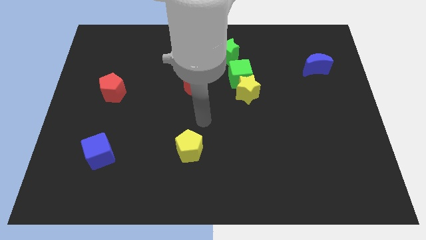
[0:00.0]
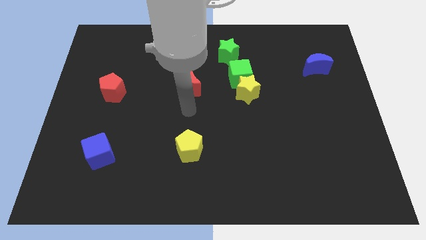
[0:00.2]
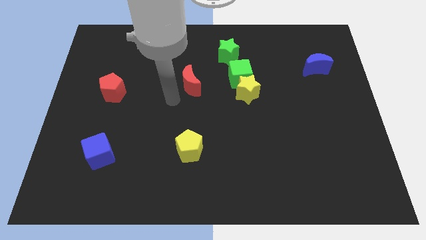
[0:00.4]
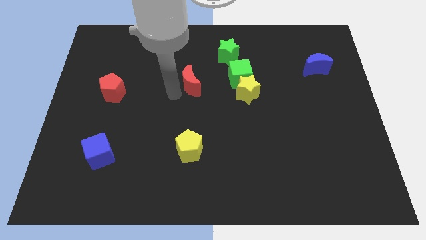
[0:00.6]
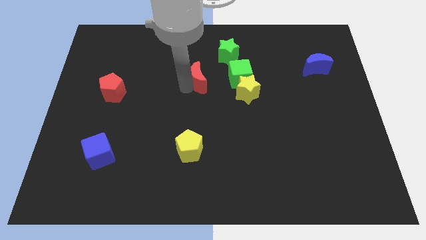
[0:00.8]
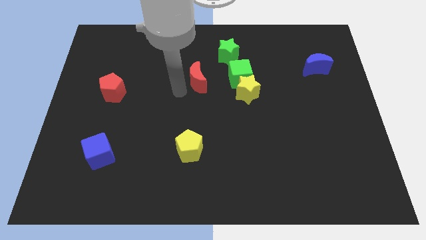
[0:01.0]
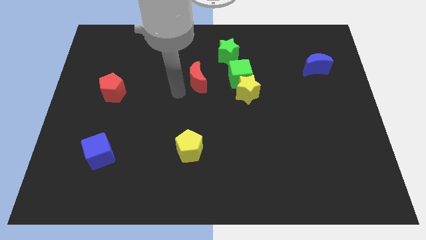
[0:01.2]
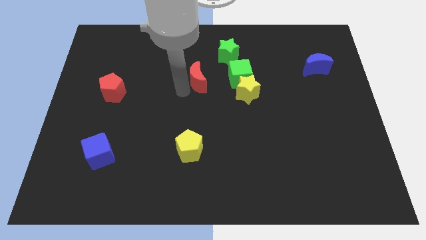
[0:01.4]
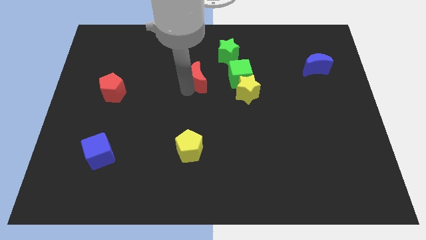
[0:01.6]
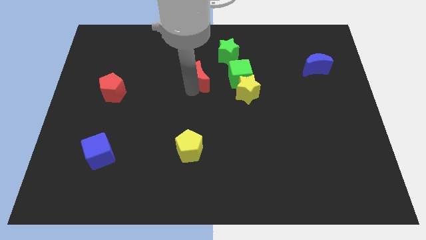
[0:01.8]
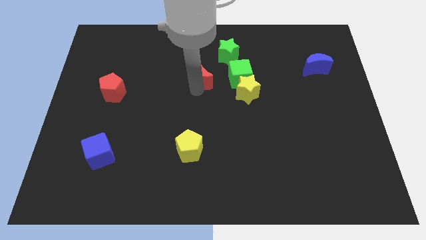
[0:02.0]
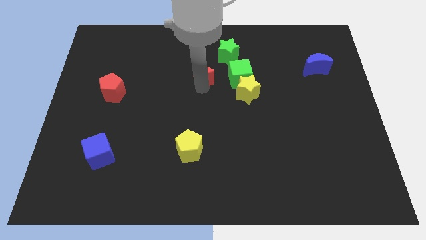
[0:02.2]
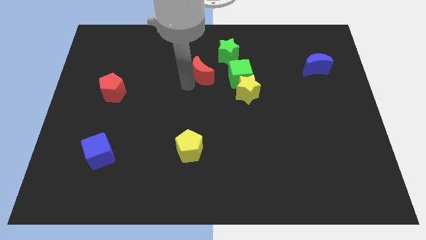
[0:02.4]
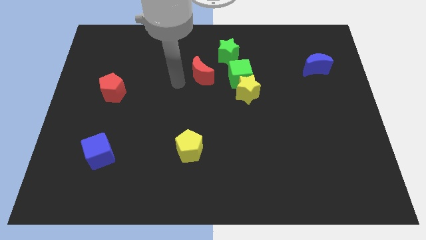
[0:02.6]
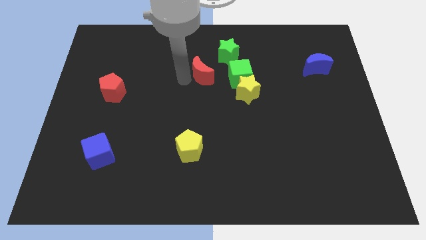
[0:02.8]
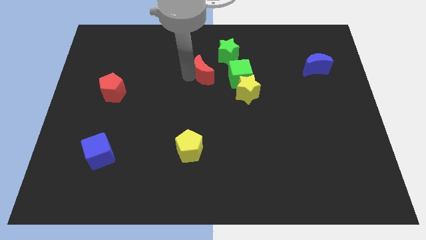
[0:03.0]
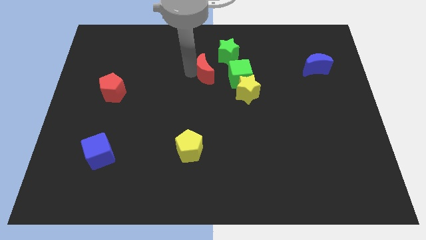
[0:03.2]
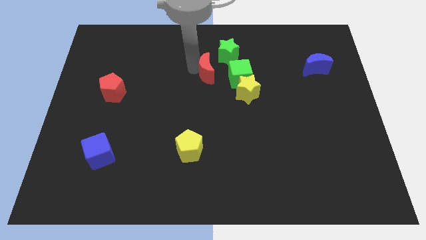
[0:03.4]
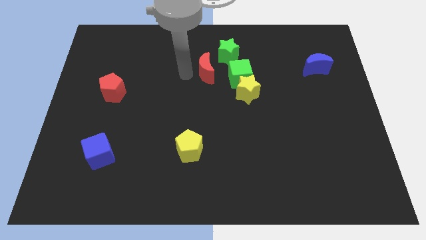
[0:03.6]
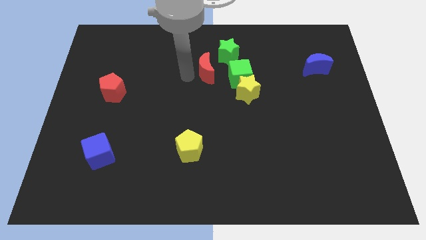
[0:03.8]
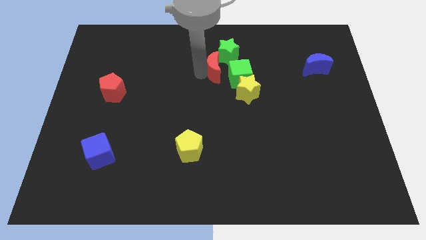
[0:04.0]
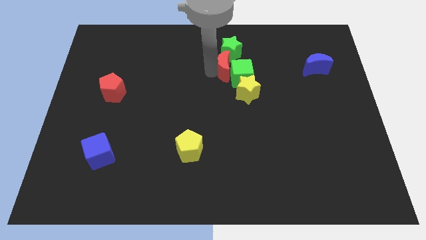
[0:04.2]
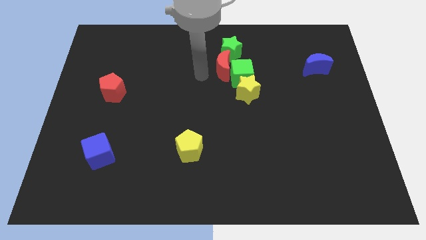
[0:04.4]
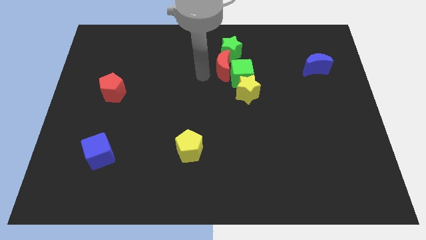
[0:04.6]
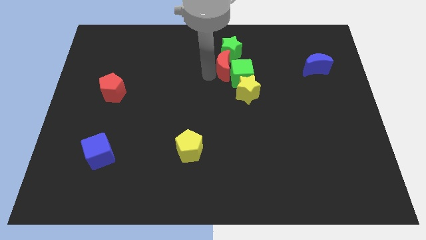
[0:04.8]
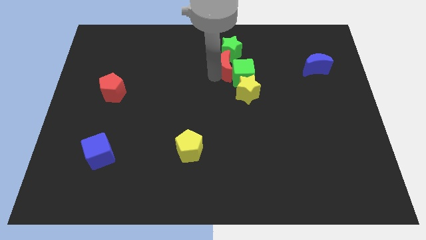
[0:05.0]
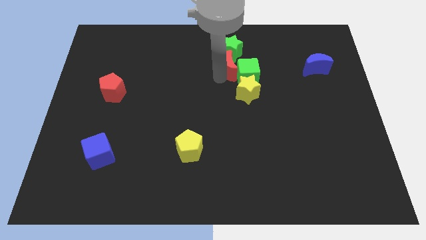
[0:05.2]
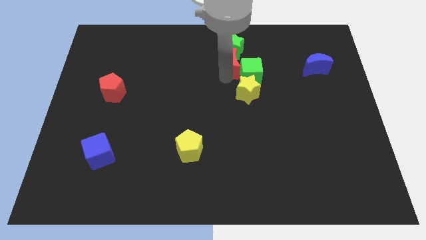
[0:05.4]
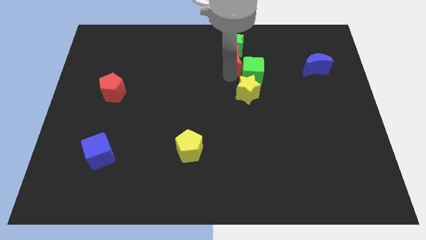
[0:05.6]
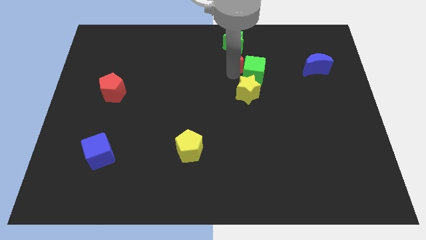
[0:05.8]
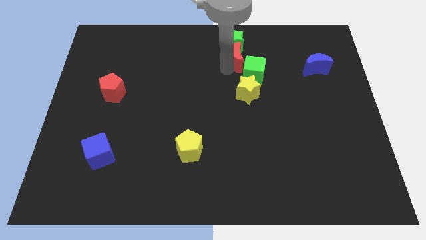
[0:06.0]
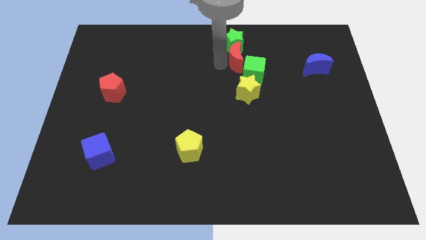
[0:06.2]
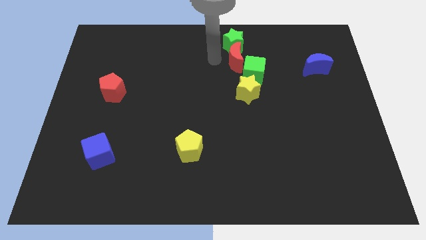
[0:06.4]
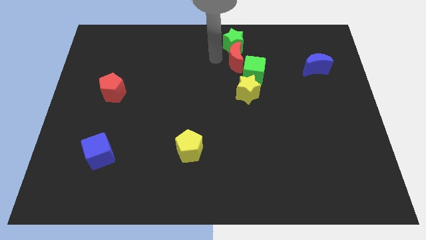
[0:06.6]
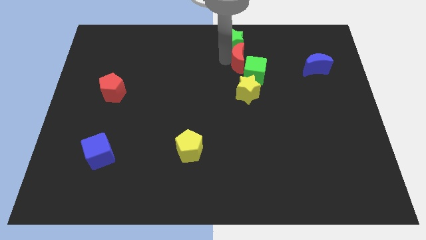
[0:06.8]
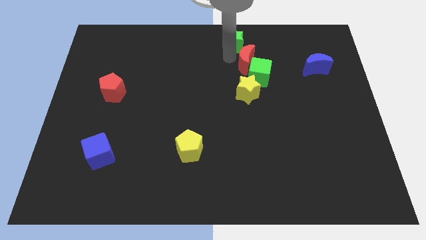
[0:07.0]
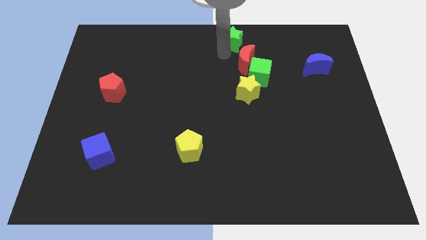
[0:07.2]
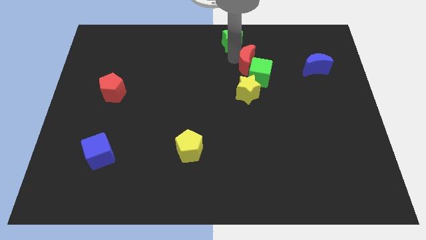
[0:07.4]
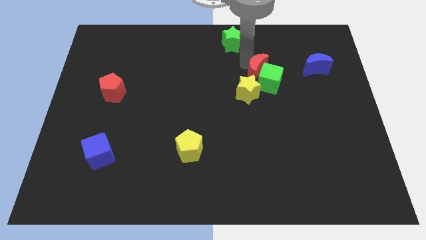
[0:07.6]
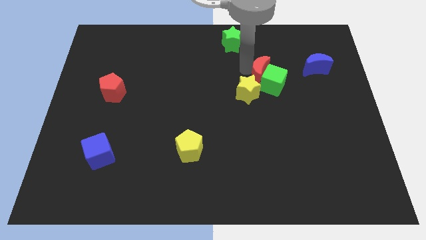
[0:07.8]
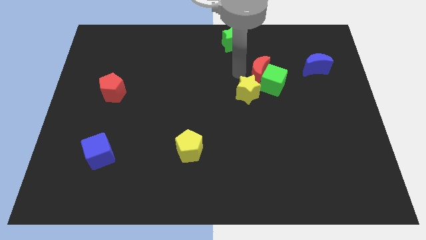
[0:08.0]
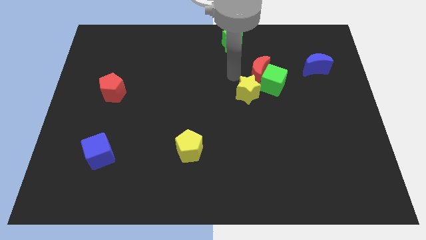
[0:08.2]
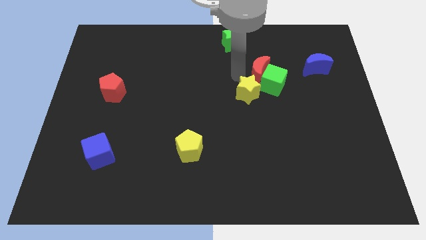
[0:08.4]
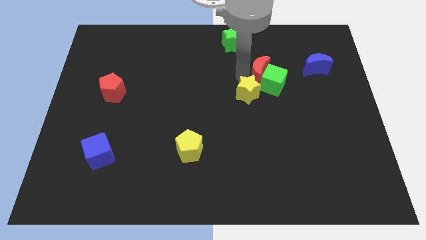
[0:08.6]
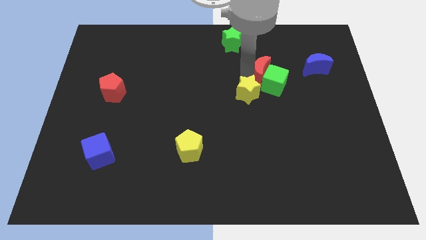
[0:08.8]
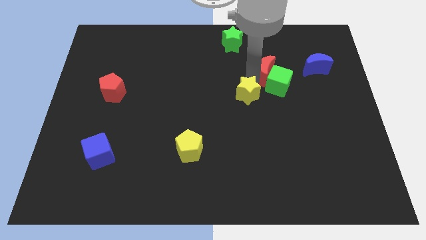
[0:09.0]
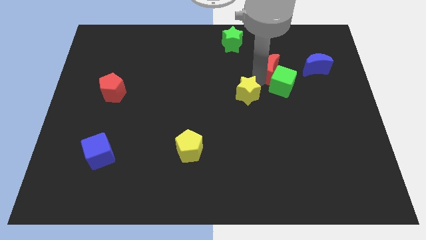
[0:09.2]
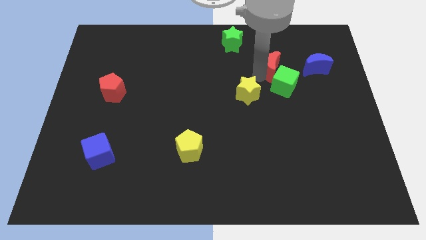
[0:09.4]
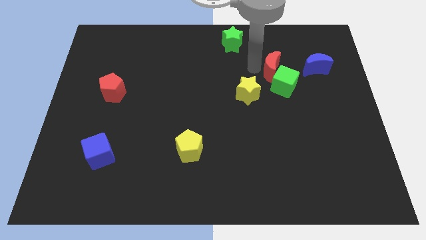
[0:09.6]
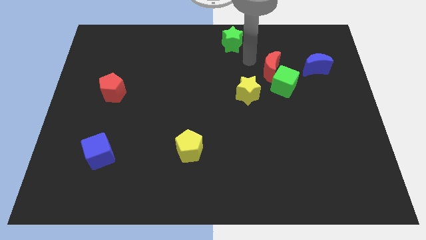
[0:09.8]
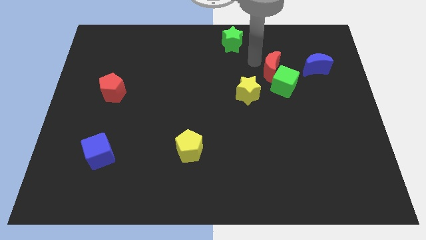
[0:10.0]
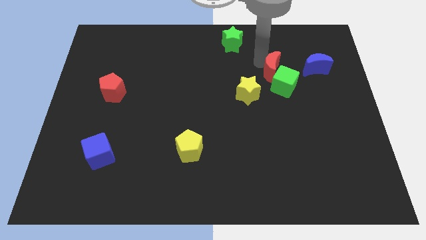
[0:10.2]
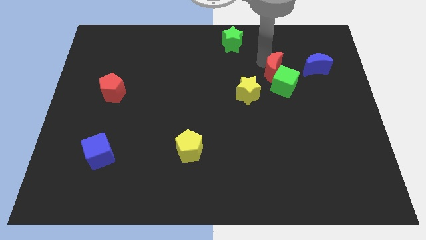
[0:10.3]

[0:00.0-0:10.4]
push the red moon to the right

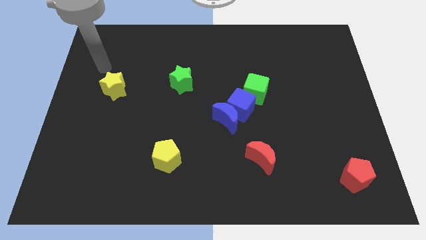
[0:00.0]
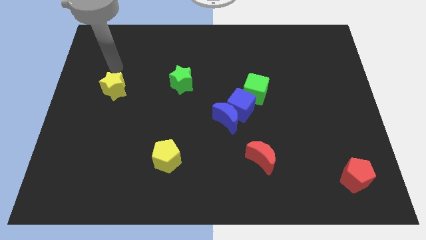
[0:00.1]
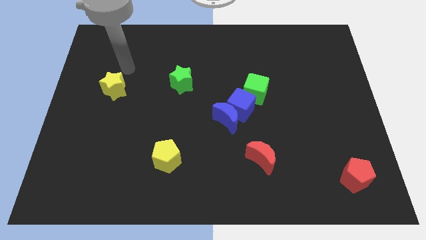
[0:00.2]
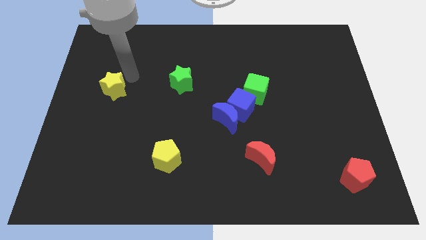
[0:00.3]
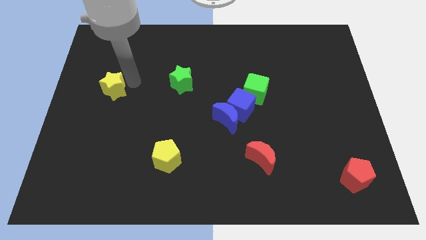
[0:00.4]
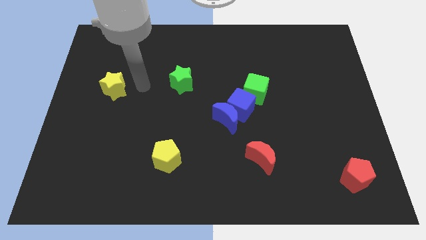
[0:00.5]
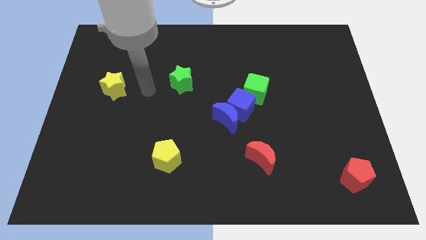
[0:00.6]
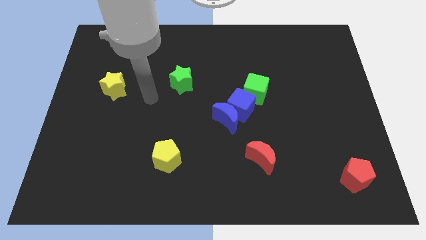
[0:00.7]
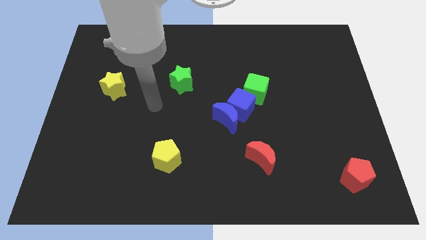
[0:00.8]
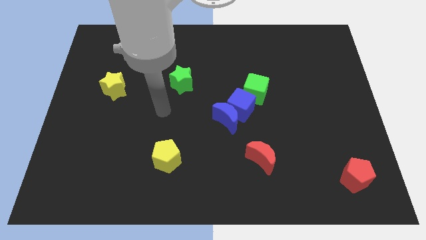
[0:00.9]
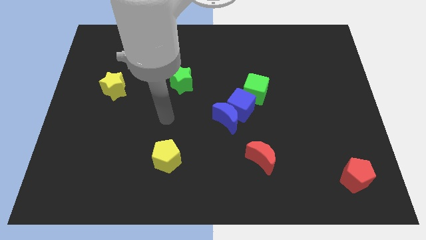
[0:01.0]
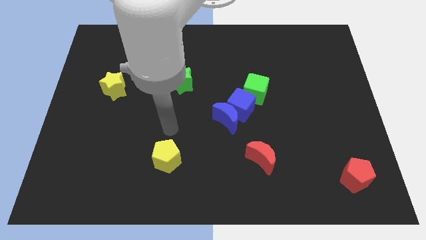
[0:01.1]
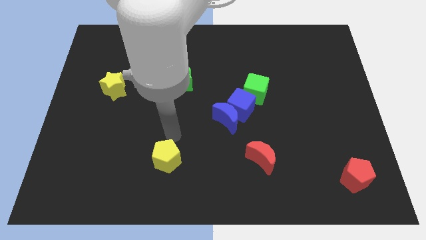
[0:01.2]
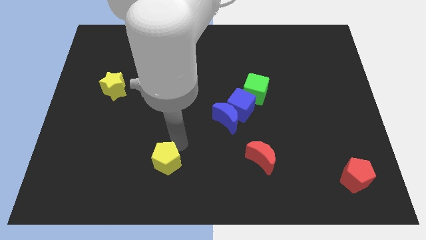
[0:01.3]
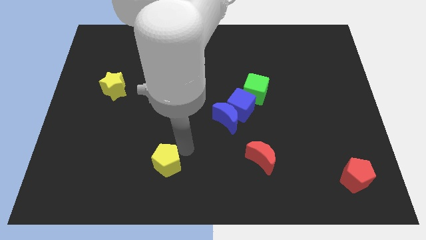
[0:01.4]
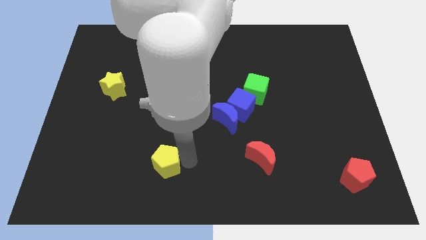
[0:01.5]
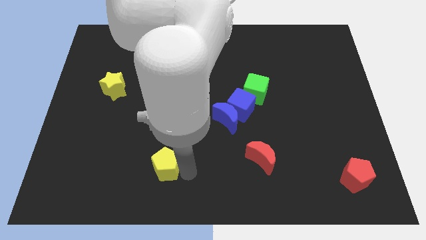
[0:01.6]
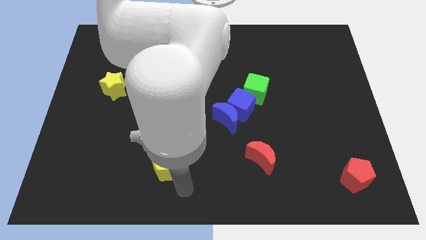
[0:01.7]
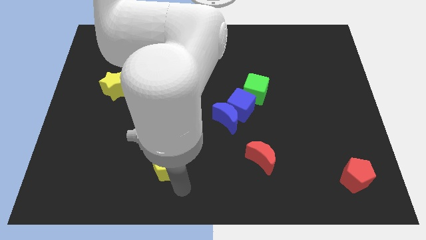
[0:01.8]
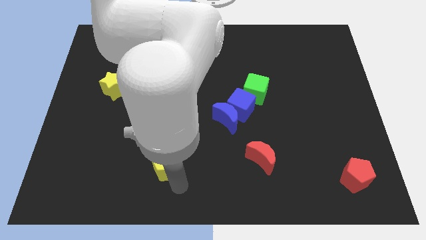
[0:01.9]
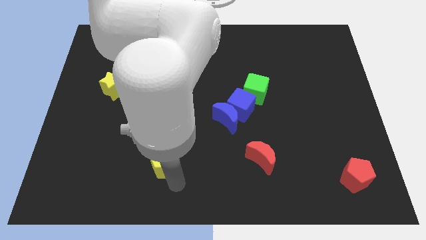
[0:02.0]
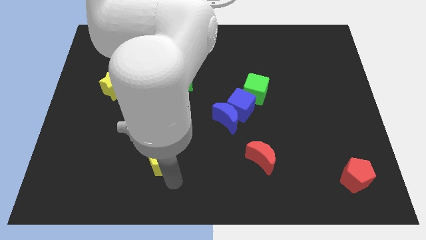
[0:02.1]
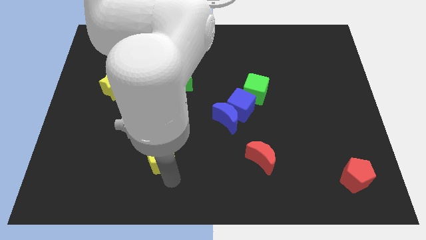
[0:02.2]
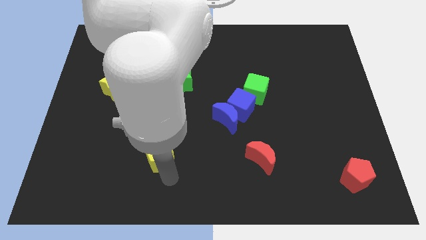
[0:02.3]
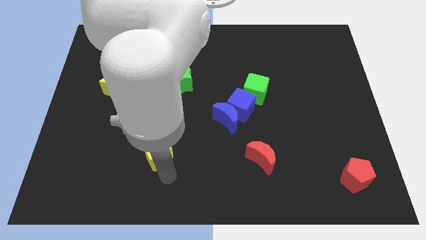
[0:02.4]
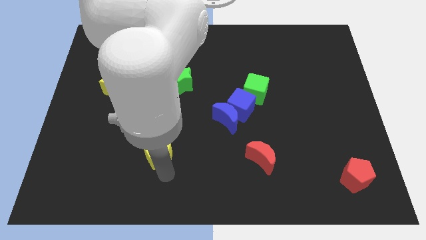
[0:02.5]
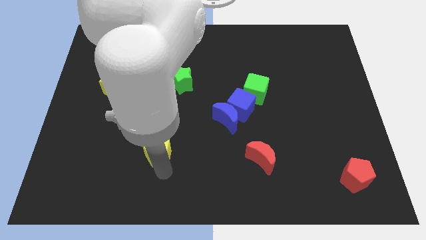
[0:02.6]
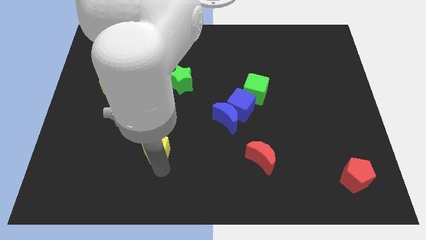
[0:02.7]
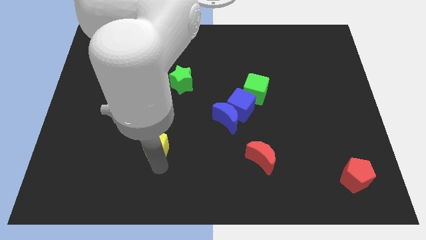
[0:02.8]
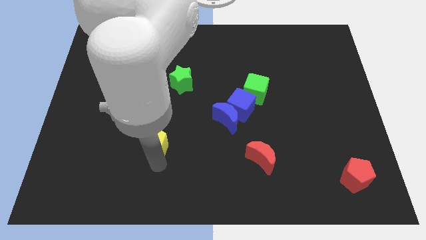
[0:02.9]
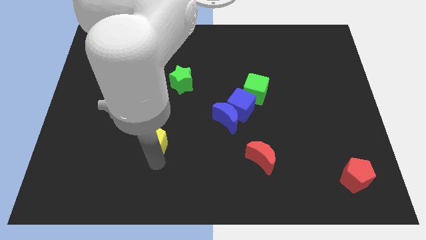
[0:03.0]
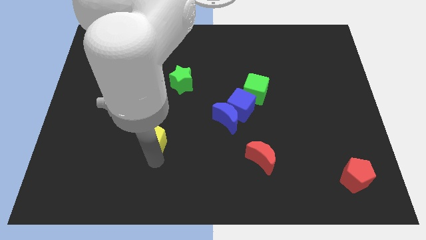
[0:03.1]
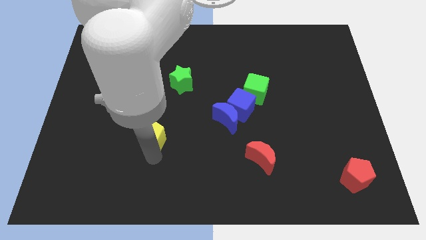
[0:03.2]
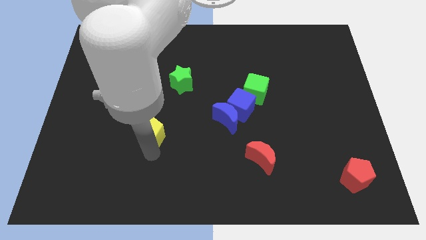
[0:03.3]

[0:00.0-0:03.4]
push the yellow pentagon up and left diagonally a bit
